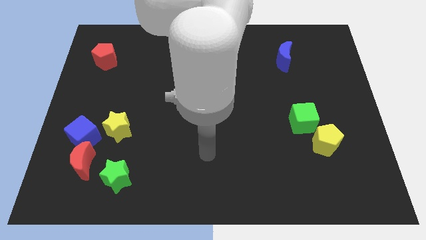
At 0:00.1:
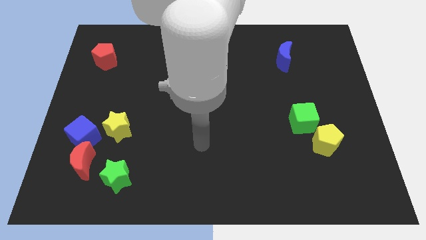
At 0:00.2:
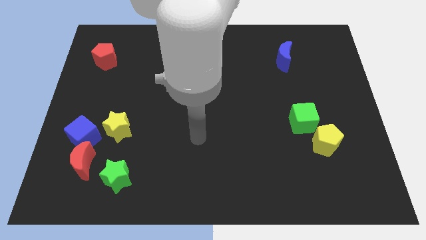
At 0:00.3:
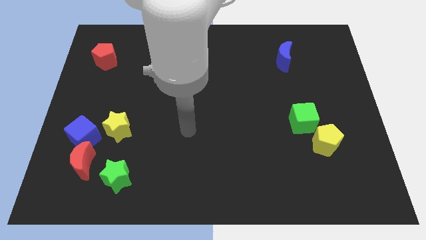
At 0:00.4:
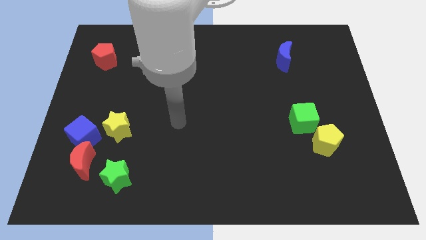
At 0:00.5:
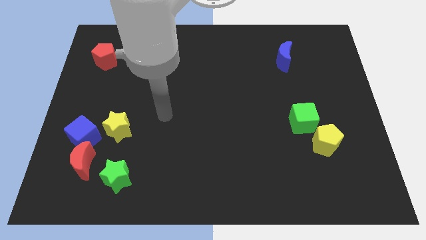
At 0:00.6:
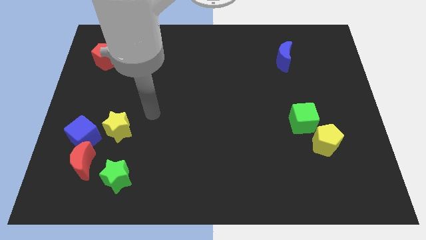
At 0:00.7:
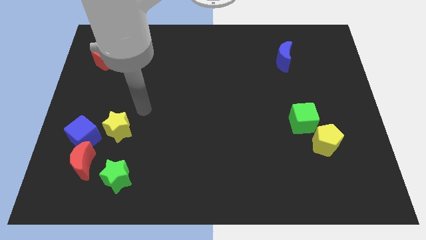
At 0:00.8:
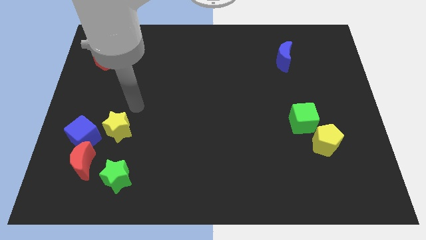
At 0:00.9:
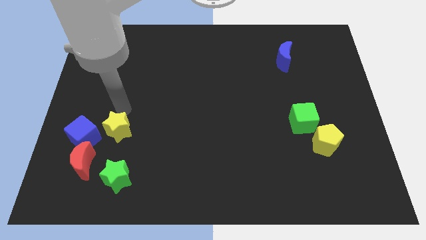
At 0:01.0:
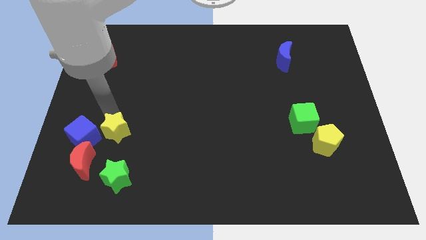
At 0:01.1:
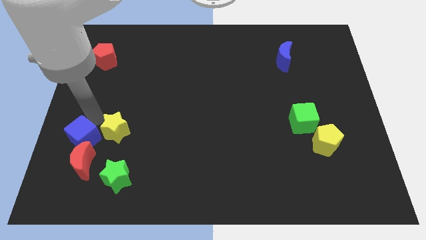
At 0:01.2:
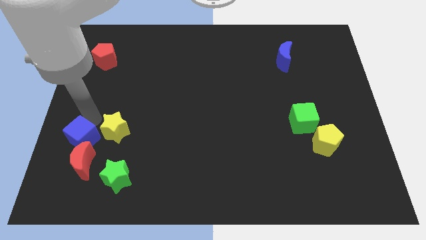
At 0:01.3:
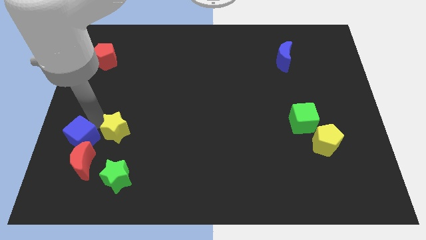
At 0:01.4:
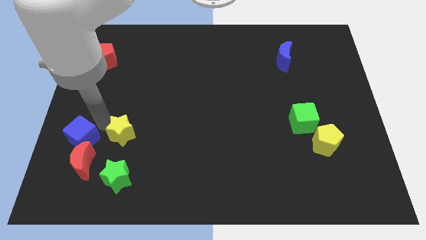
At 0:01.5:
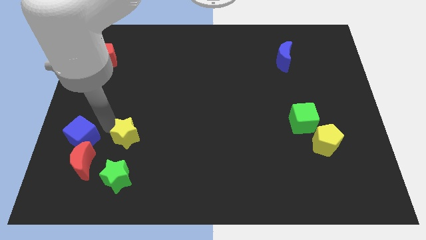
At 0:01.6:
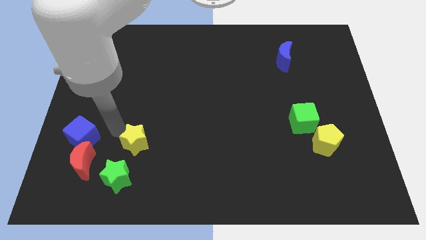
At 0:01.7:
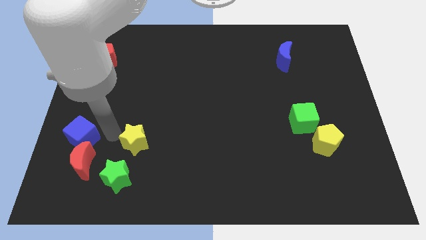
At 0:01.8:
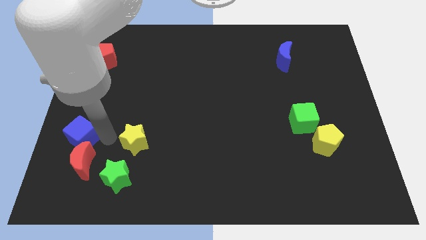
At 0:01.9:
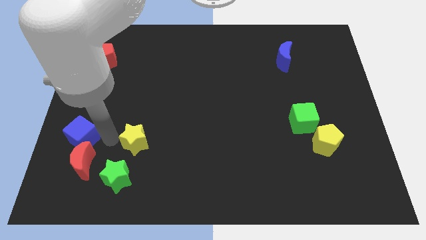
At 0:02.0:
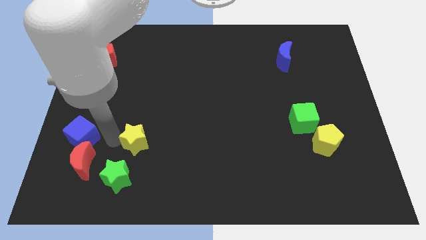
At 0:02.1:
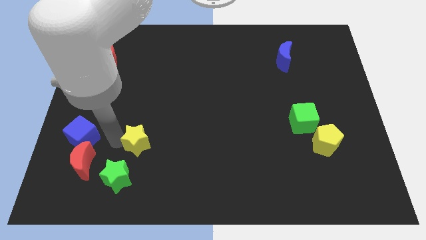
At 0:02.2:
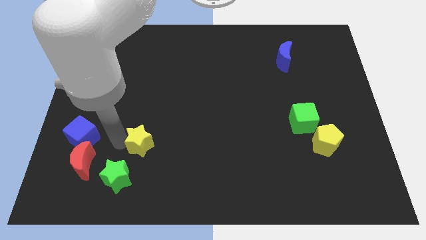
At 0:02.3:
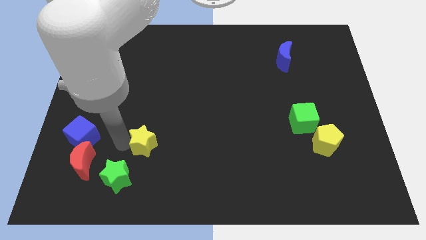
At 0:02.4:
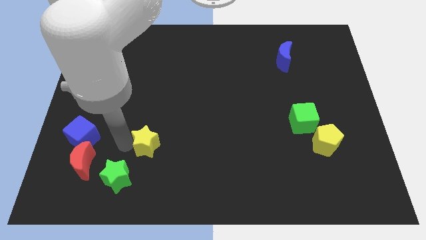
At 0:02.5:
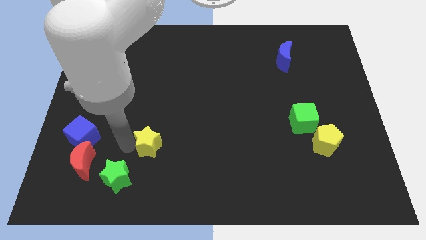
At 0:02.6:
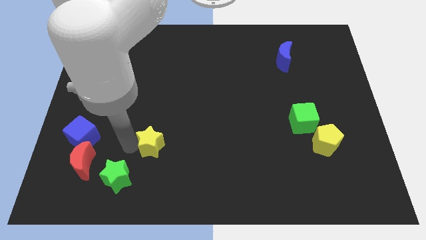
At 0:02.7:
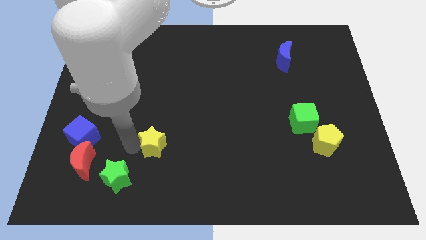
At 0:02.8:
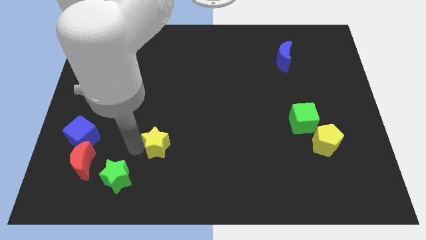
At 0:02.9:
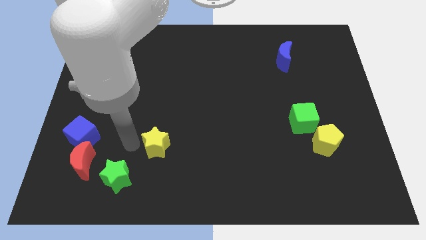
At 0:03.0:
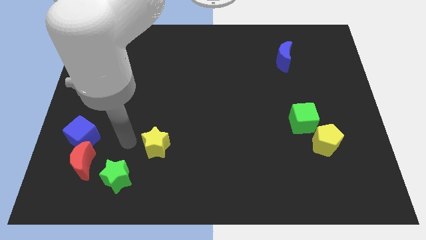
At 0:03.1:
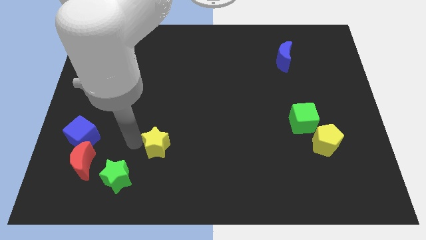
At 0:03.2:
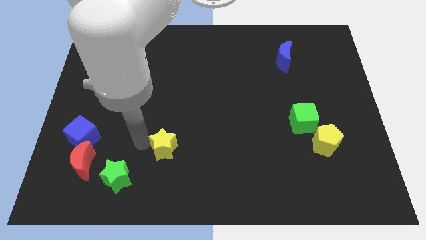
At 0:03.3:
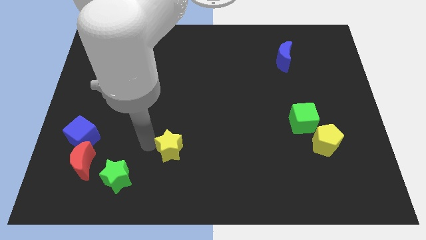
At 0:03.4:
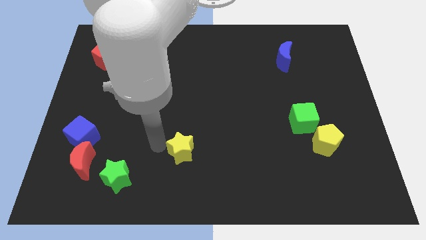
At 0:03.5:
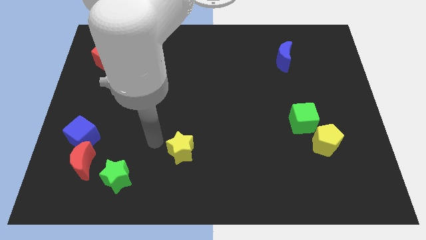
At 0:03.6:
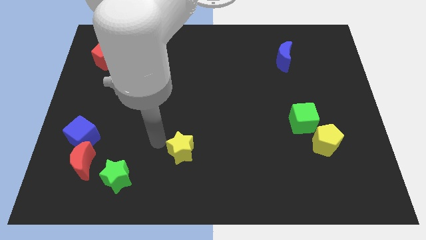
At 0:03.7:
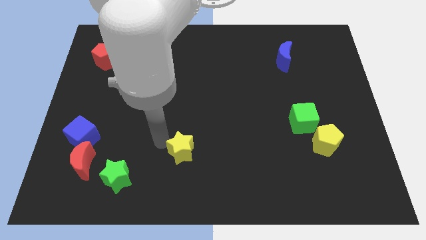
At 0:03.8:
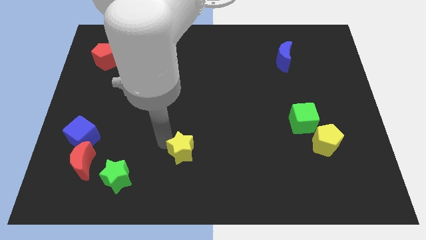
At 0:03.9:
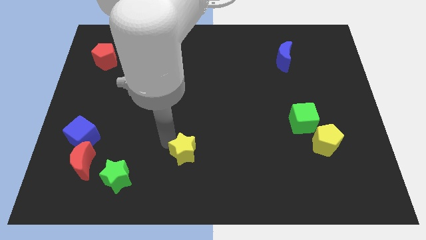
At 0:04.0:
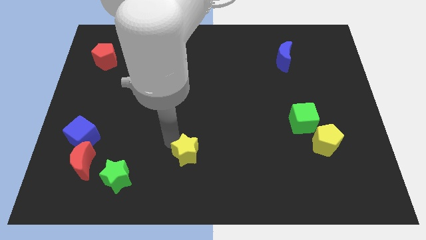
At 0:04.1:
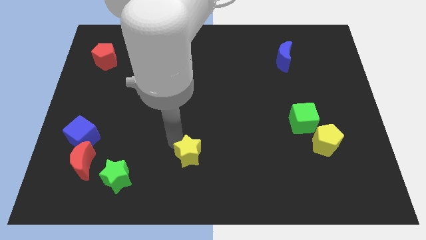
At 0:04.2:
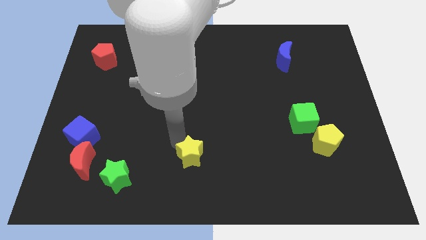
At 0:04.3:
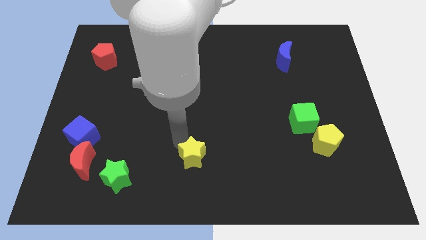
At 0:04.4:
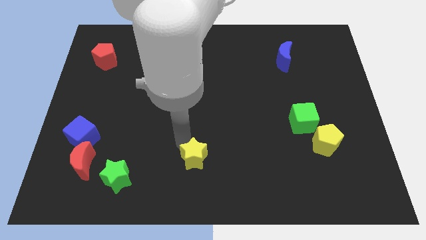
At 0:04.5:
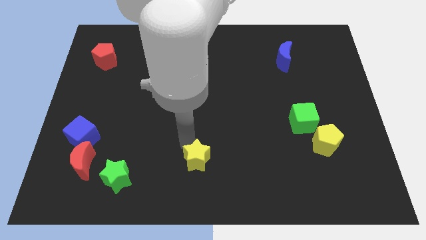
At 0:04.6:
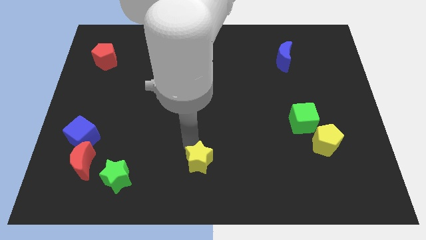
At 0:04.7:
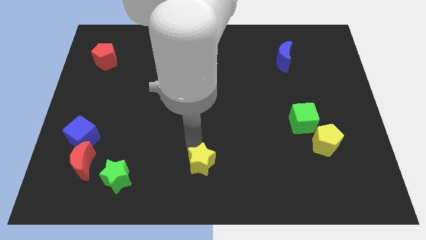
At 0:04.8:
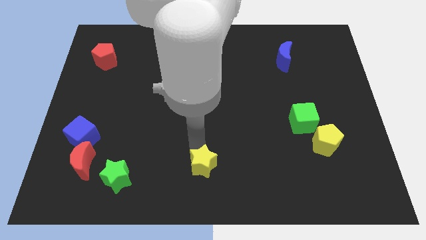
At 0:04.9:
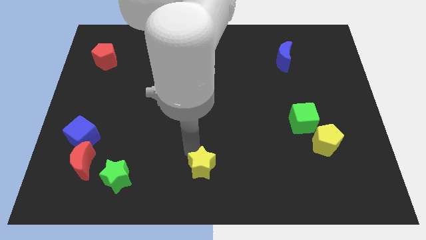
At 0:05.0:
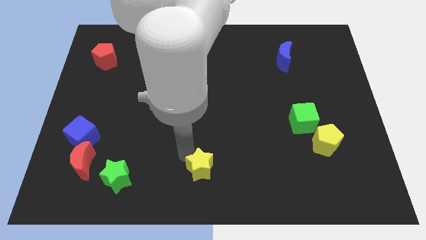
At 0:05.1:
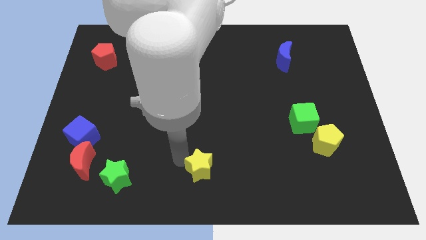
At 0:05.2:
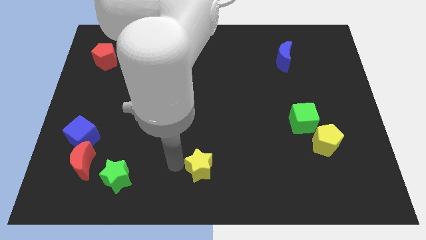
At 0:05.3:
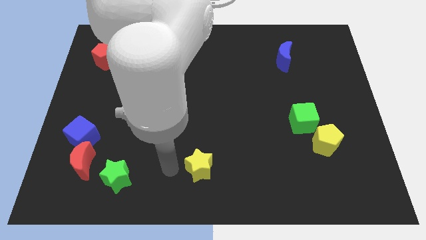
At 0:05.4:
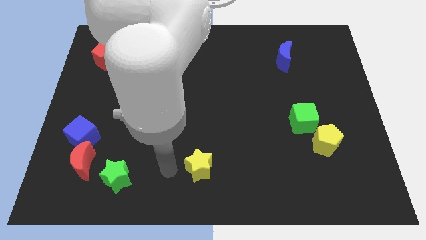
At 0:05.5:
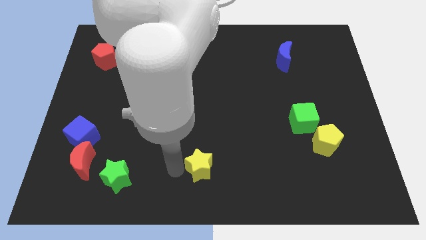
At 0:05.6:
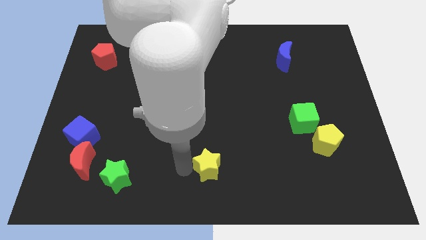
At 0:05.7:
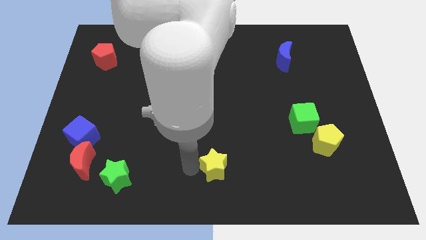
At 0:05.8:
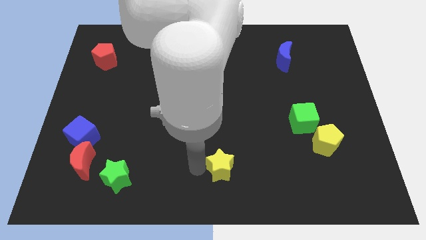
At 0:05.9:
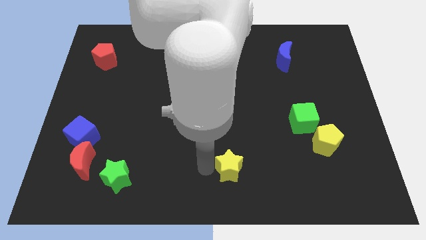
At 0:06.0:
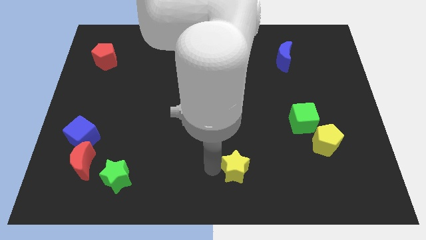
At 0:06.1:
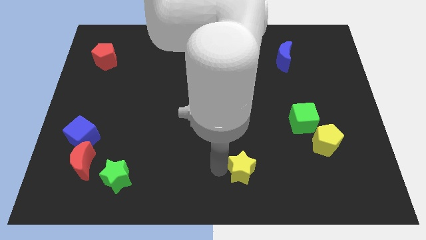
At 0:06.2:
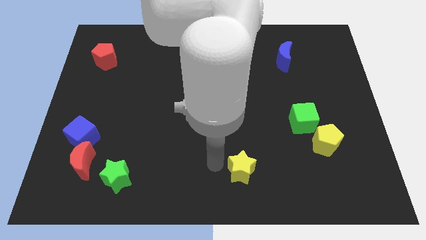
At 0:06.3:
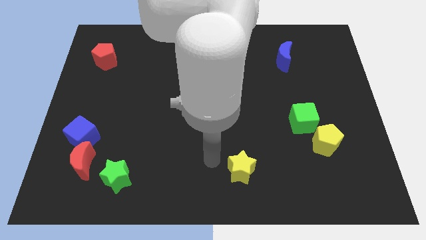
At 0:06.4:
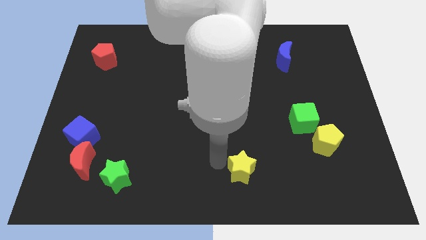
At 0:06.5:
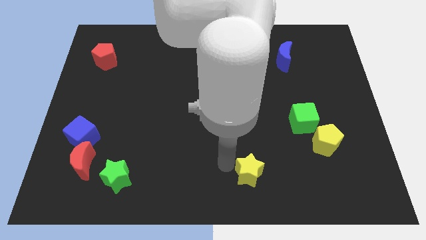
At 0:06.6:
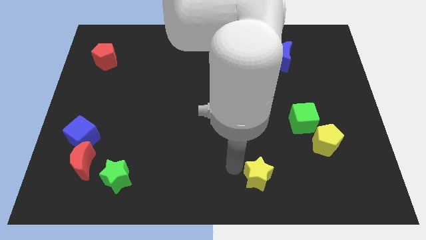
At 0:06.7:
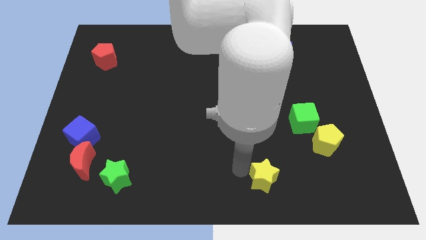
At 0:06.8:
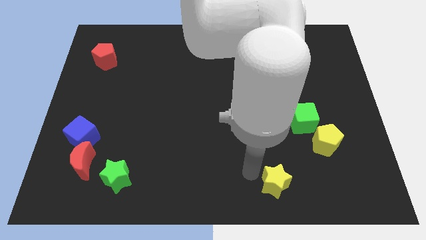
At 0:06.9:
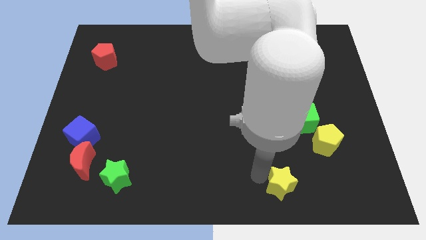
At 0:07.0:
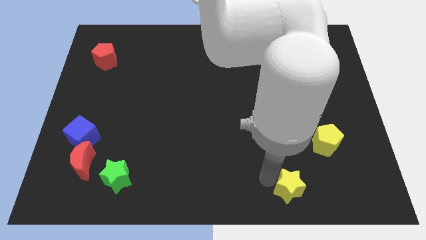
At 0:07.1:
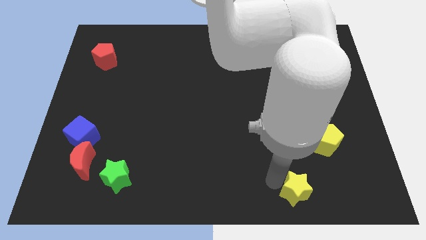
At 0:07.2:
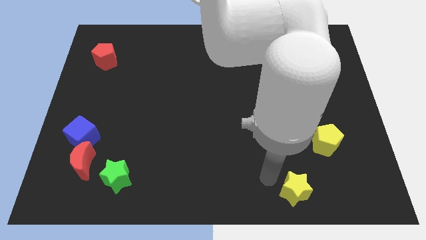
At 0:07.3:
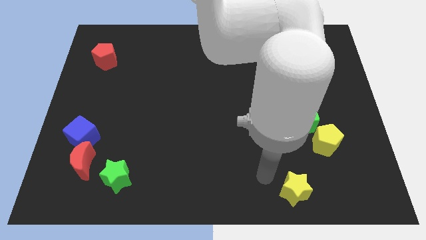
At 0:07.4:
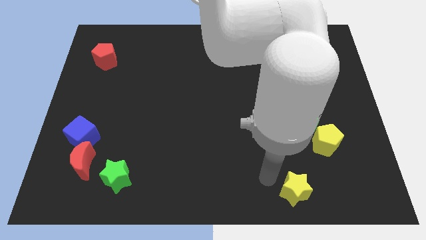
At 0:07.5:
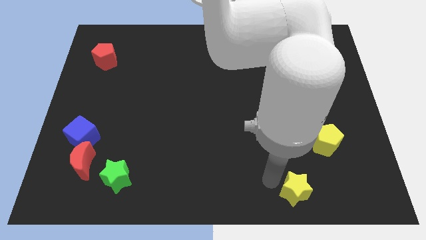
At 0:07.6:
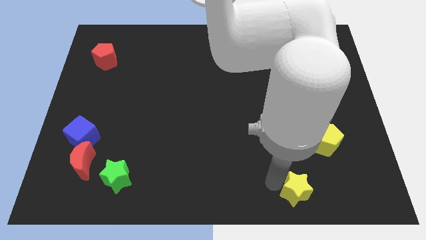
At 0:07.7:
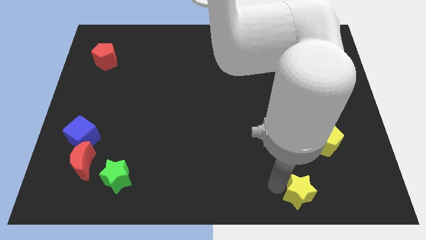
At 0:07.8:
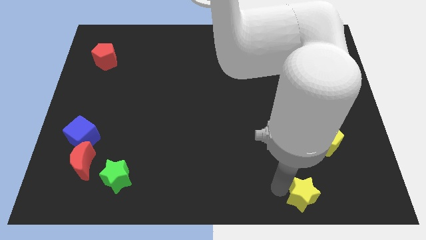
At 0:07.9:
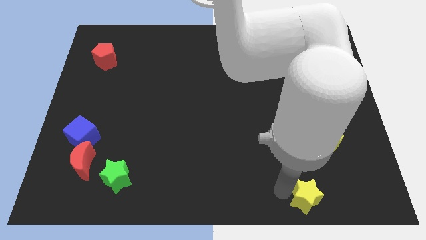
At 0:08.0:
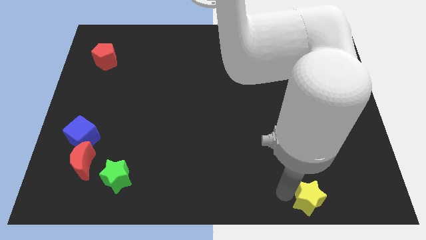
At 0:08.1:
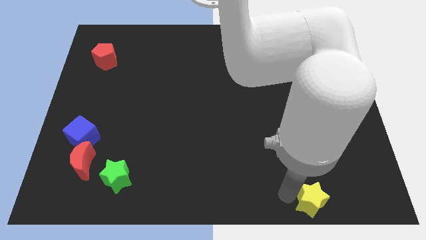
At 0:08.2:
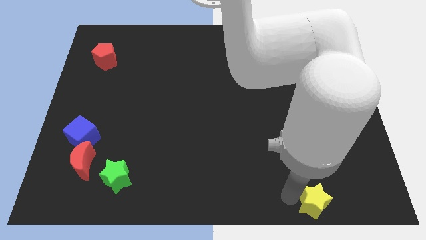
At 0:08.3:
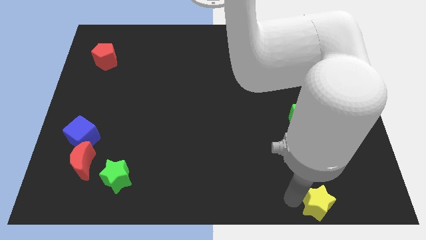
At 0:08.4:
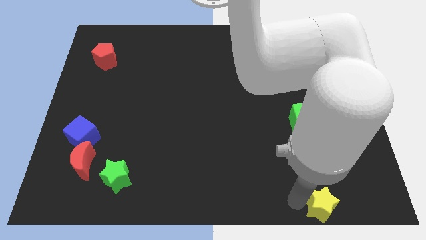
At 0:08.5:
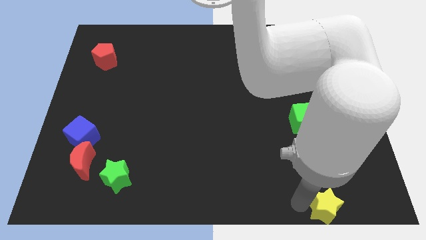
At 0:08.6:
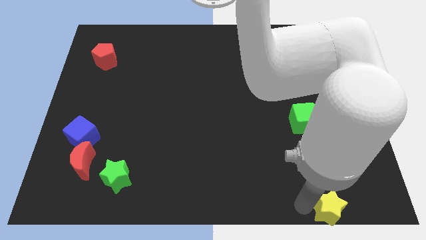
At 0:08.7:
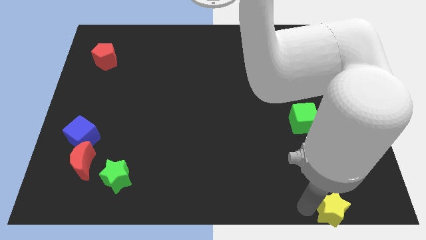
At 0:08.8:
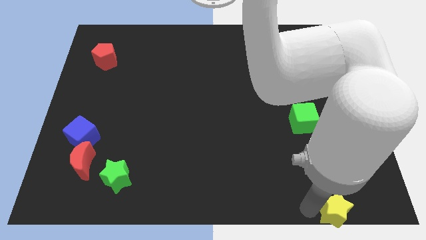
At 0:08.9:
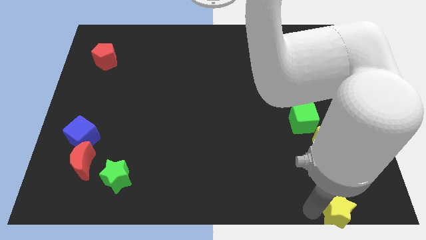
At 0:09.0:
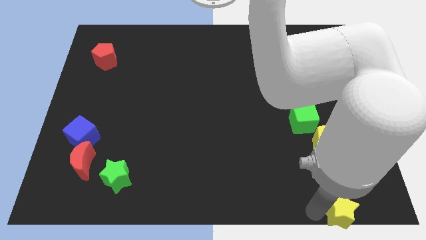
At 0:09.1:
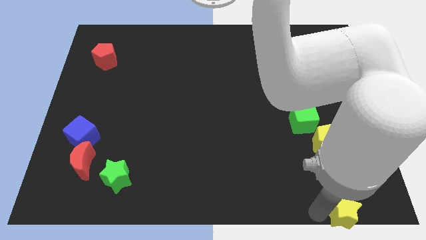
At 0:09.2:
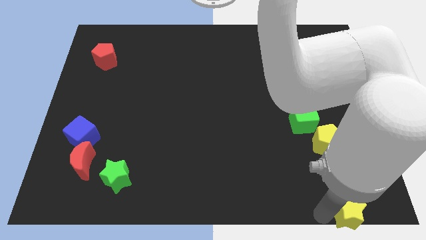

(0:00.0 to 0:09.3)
put the yellow star to the bottom right corner
